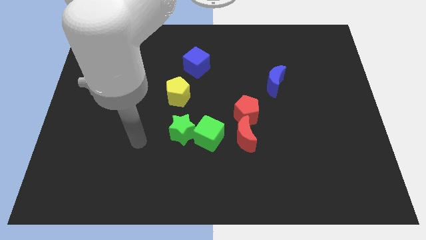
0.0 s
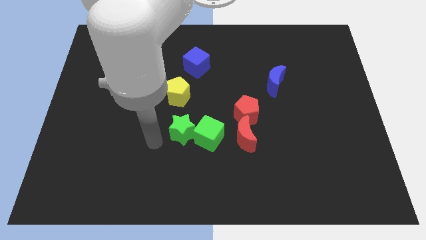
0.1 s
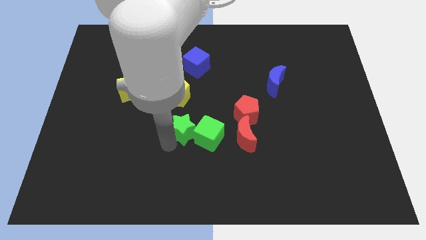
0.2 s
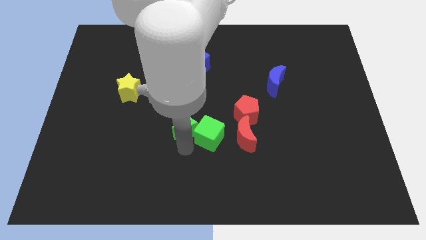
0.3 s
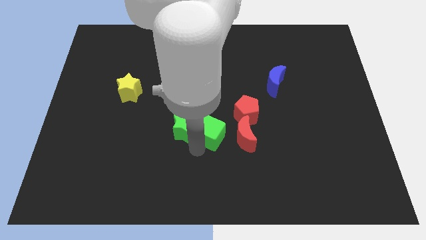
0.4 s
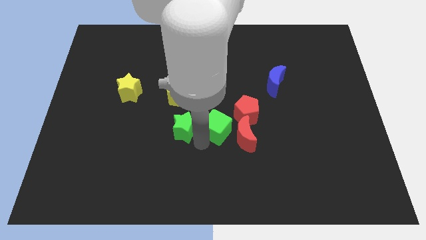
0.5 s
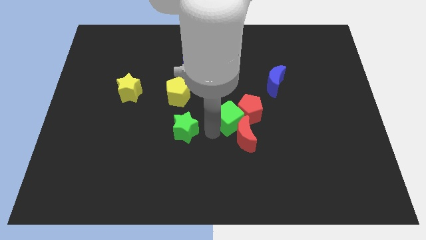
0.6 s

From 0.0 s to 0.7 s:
pull the green star apart from the green cube

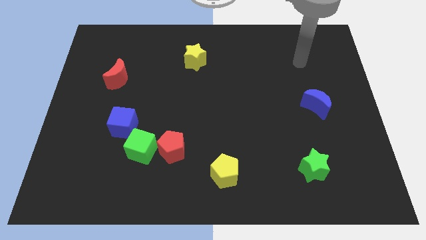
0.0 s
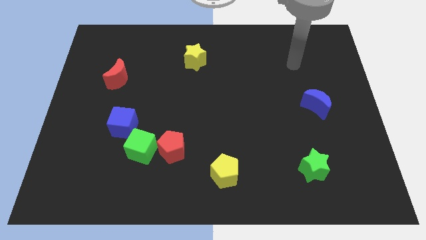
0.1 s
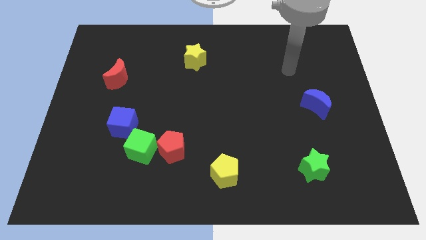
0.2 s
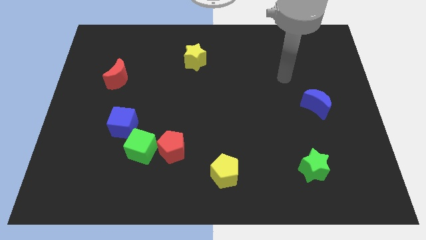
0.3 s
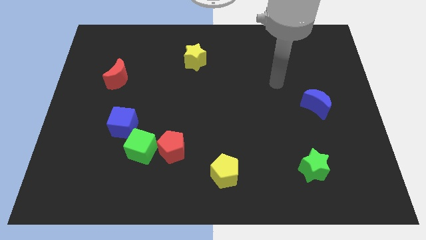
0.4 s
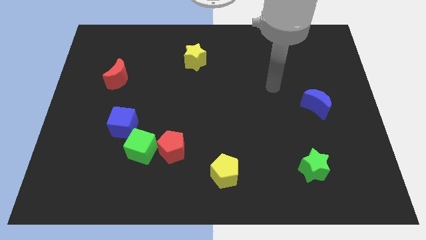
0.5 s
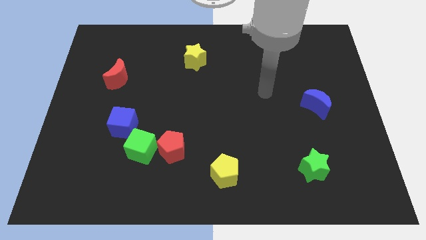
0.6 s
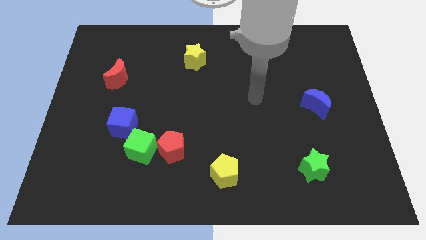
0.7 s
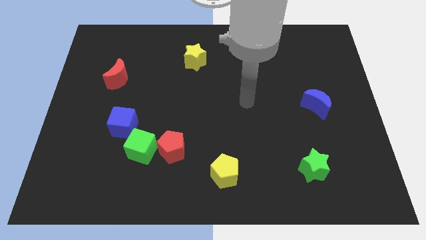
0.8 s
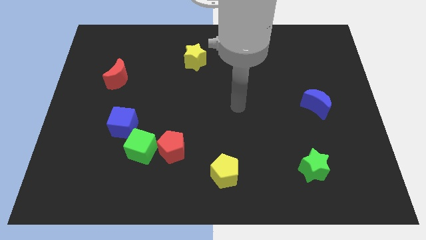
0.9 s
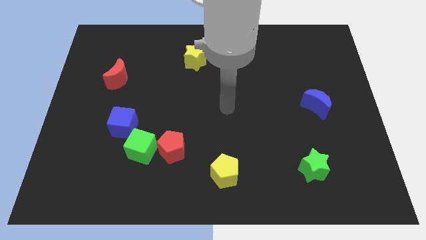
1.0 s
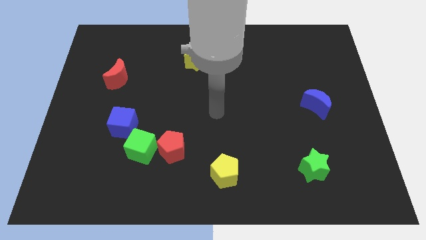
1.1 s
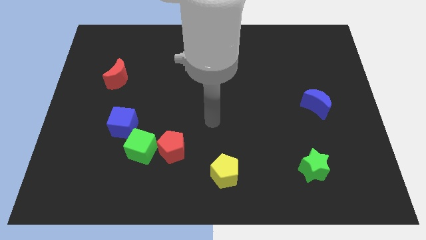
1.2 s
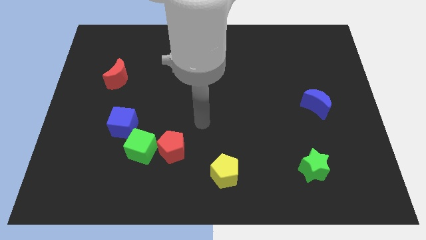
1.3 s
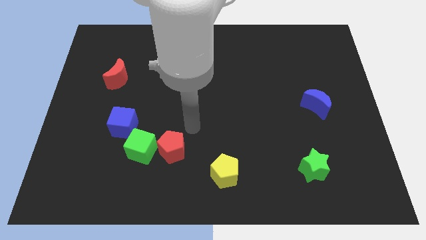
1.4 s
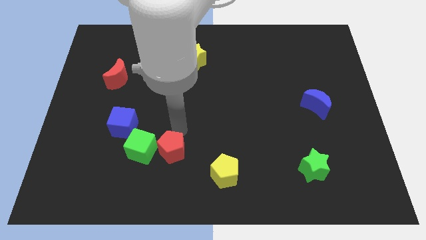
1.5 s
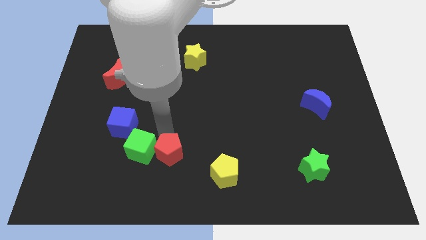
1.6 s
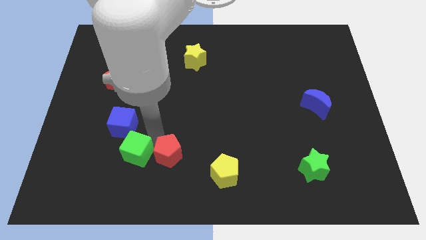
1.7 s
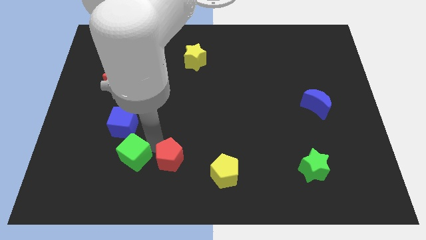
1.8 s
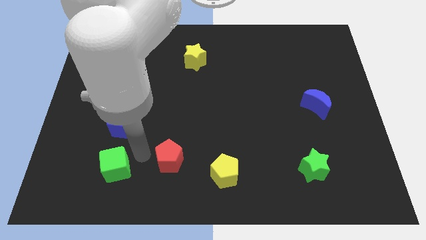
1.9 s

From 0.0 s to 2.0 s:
move the red pentagon away from the green cube

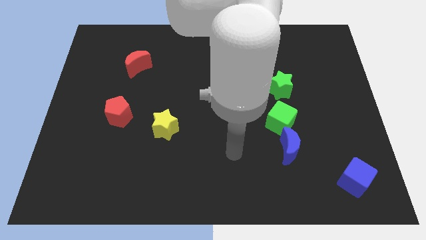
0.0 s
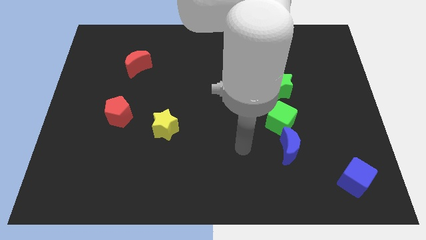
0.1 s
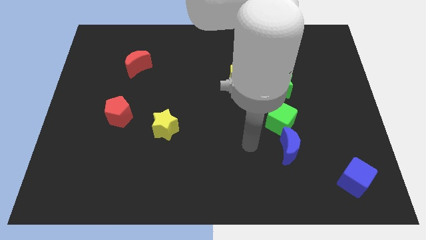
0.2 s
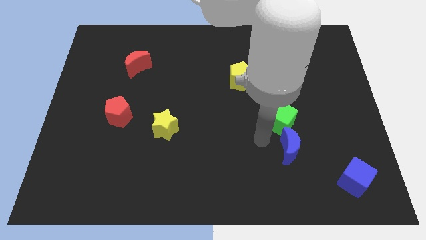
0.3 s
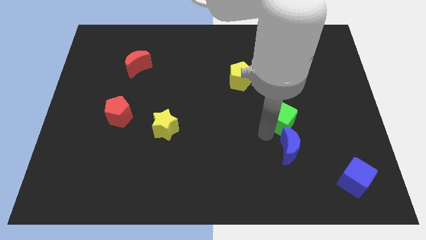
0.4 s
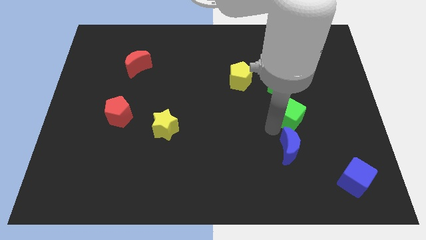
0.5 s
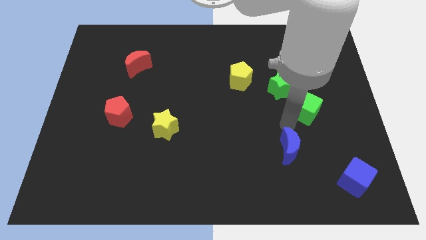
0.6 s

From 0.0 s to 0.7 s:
separate the blue moon from the green cube

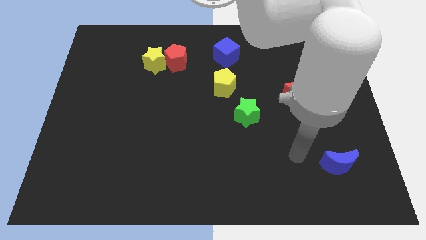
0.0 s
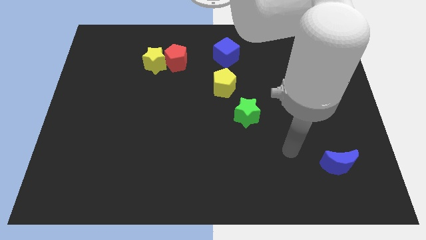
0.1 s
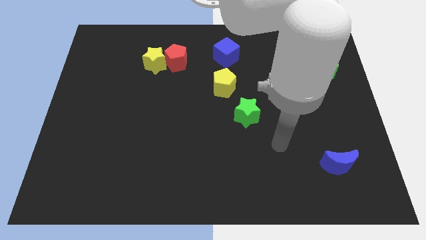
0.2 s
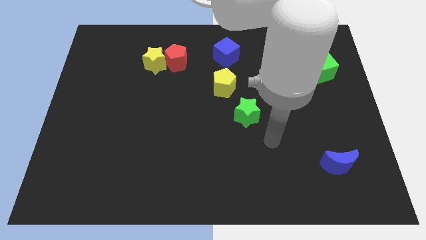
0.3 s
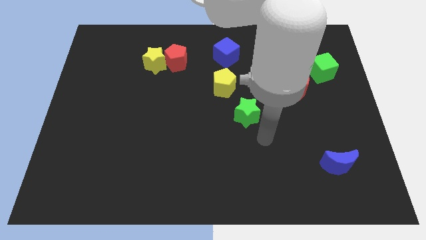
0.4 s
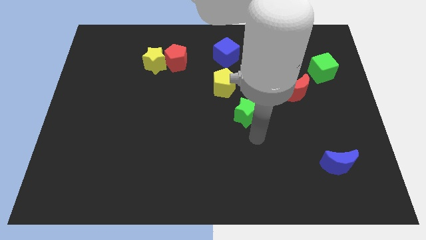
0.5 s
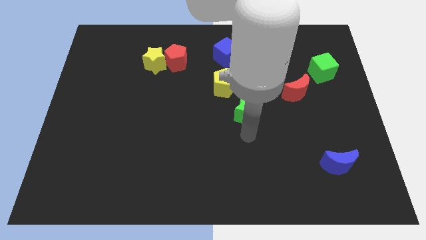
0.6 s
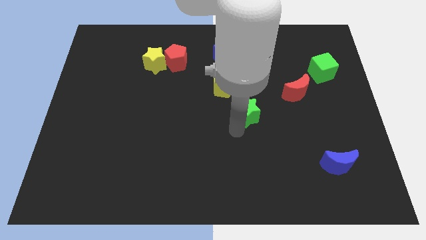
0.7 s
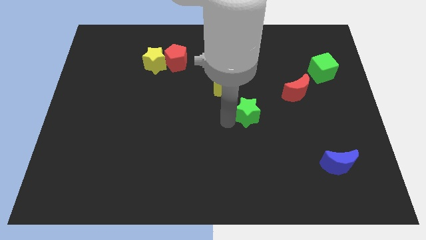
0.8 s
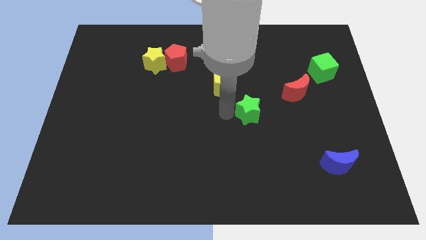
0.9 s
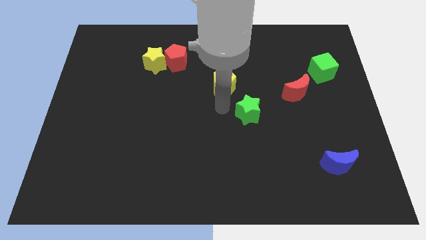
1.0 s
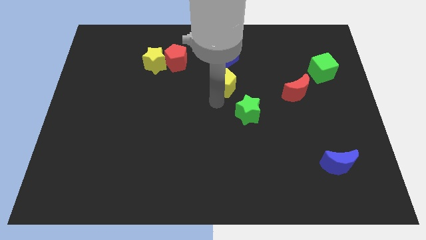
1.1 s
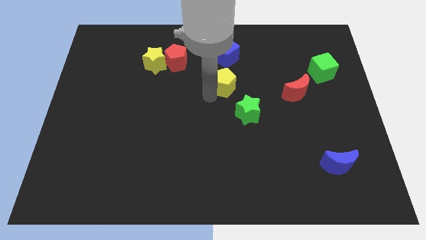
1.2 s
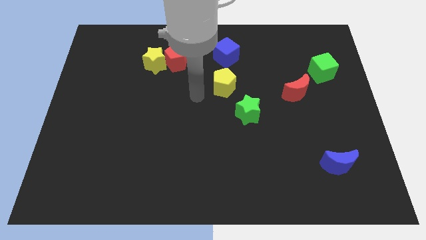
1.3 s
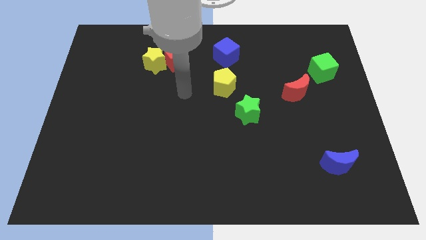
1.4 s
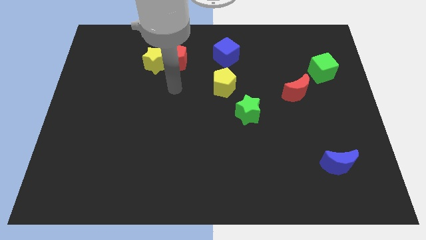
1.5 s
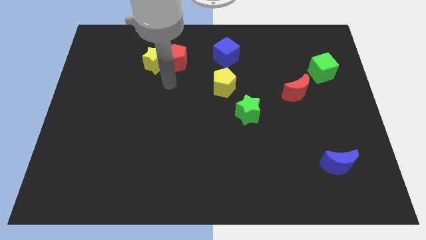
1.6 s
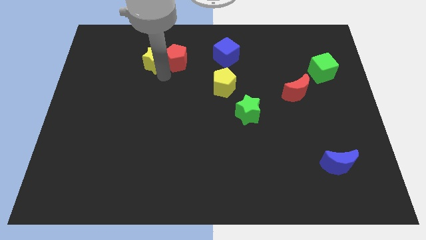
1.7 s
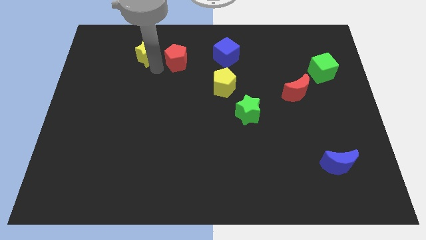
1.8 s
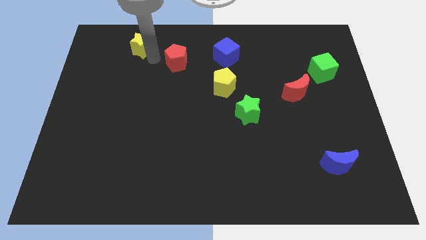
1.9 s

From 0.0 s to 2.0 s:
move the red pentagon away from the yellow star

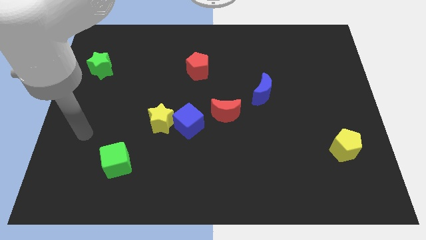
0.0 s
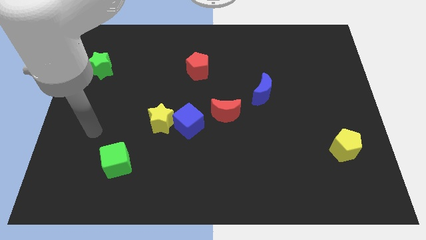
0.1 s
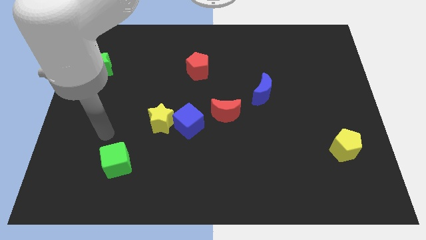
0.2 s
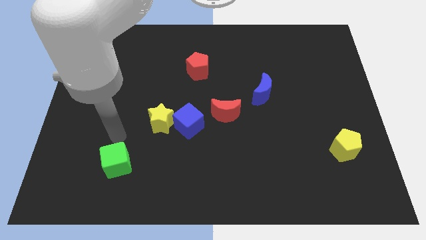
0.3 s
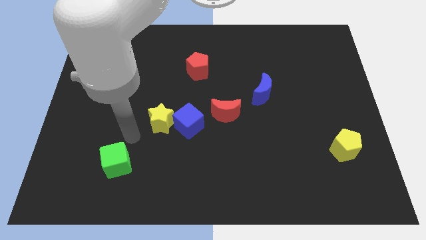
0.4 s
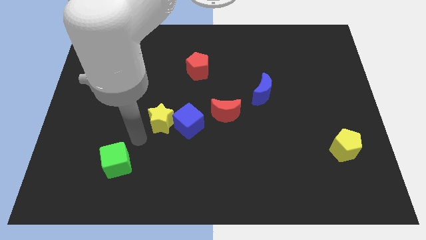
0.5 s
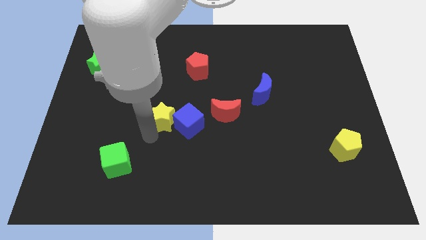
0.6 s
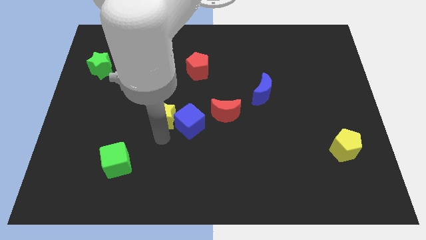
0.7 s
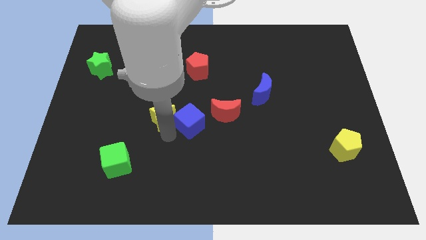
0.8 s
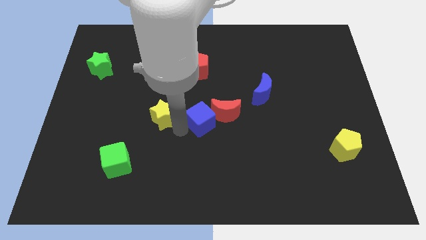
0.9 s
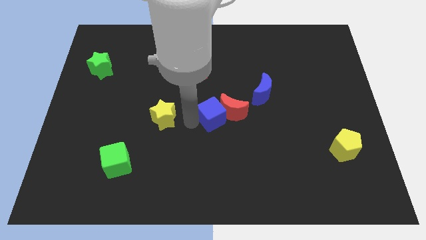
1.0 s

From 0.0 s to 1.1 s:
separate the yellow star from the blue cube

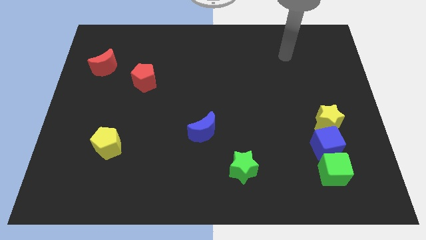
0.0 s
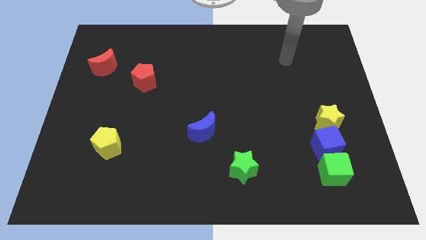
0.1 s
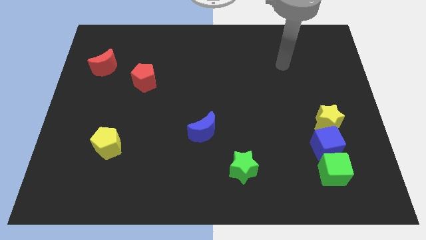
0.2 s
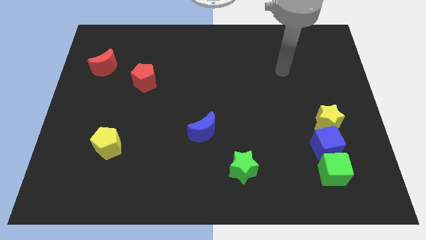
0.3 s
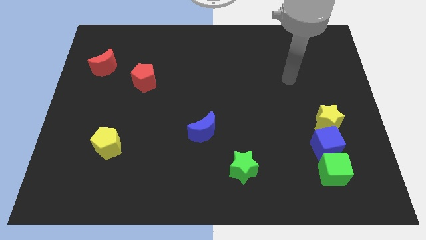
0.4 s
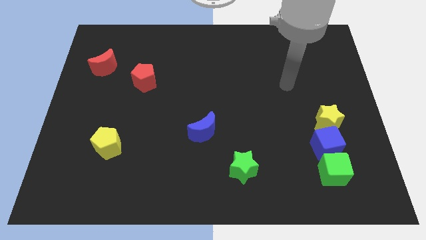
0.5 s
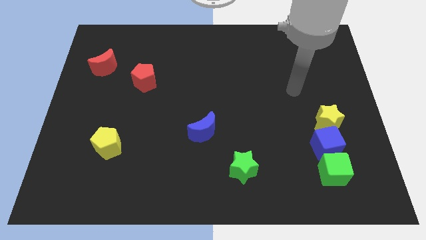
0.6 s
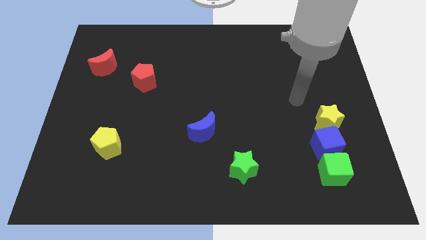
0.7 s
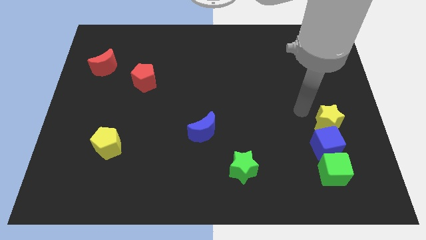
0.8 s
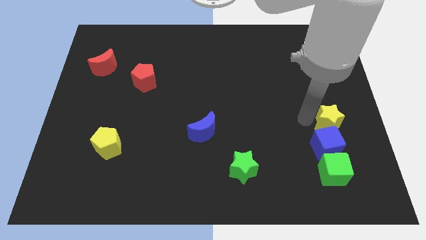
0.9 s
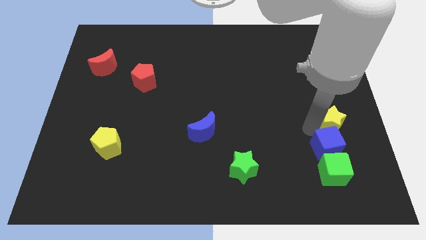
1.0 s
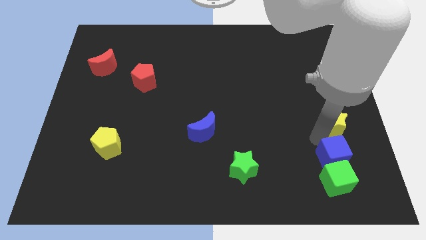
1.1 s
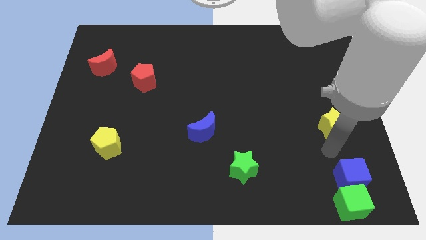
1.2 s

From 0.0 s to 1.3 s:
pull the yellow star apart from the blue cube

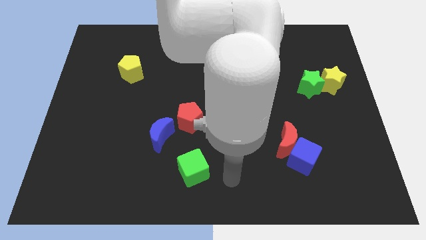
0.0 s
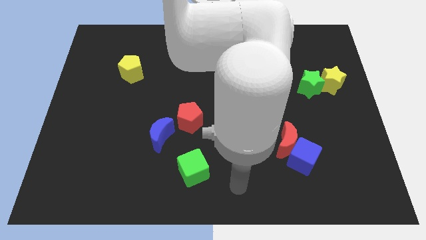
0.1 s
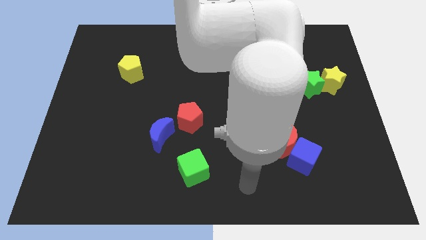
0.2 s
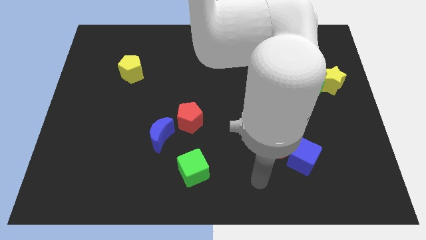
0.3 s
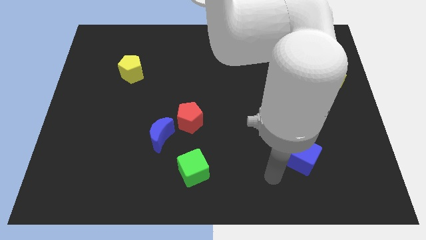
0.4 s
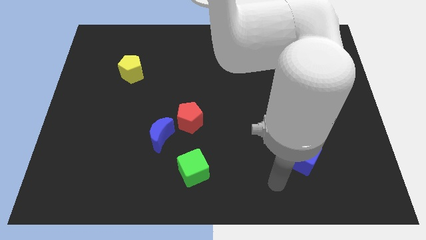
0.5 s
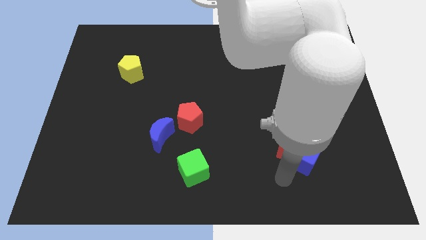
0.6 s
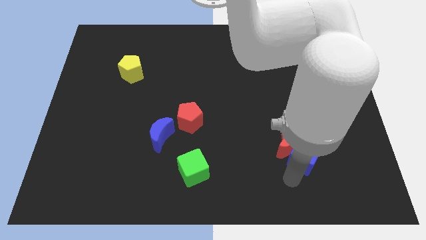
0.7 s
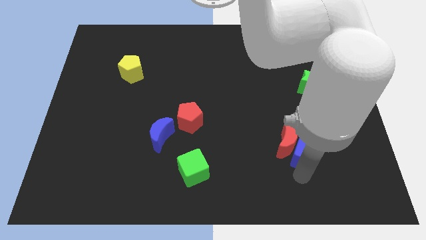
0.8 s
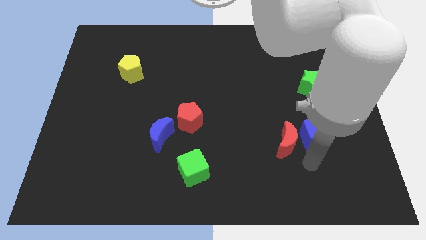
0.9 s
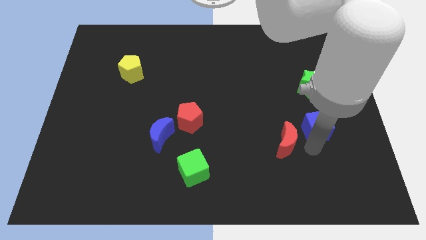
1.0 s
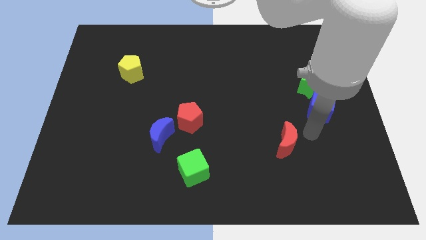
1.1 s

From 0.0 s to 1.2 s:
move the red moon away from the blue cube

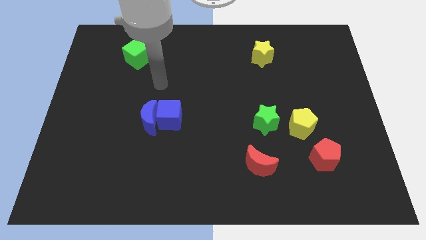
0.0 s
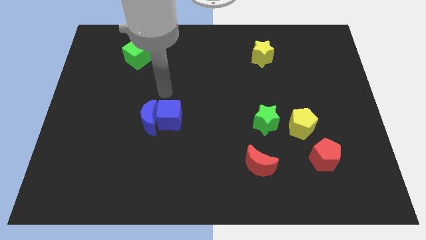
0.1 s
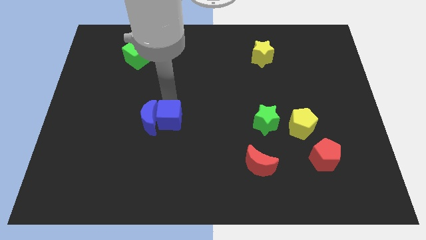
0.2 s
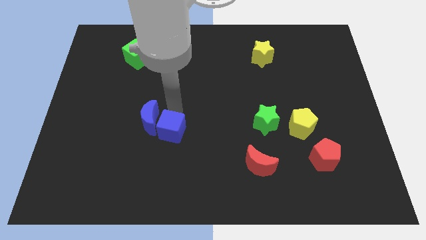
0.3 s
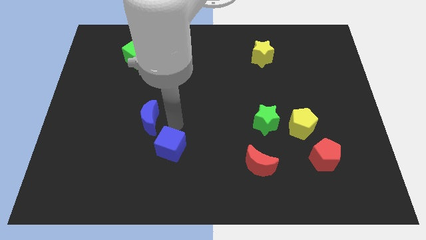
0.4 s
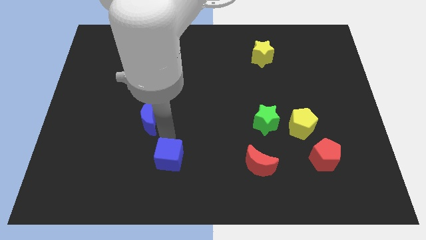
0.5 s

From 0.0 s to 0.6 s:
pull the blue moon apart from the blue cube
